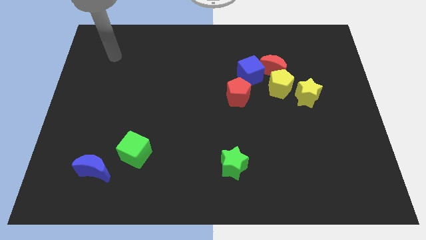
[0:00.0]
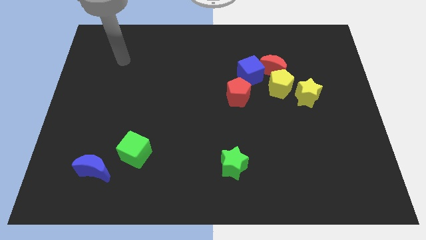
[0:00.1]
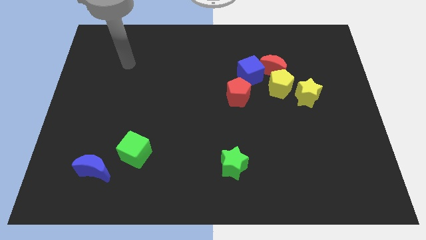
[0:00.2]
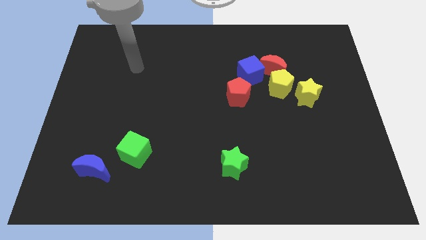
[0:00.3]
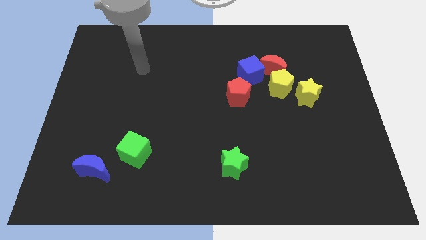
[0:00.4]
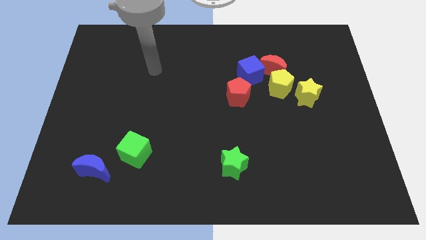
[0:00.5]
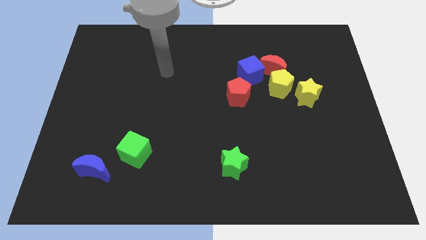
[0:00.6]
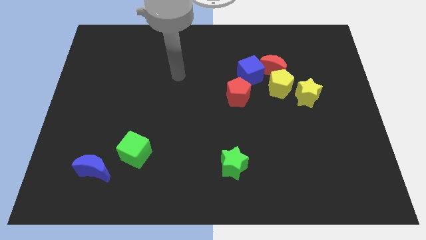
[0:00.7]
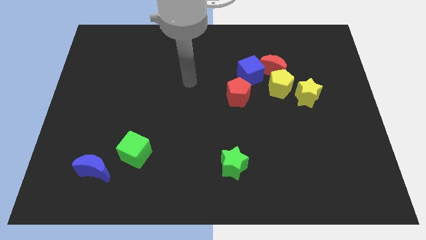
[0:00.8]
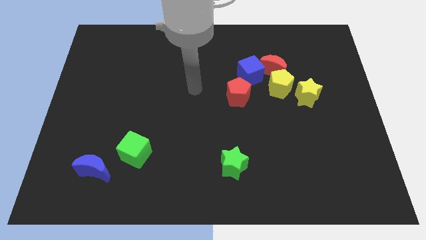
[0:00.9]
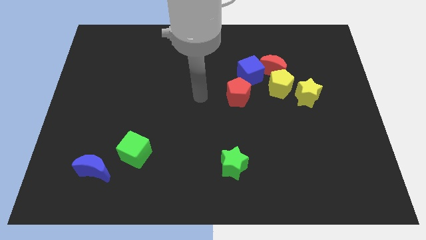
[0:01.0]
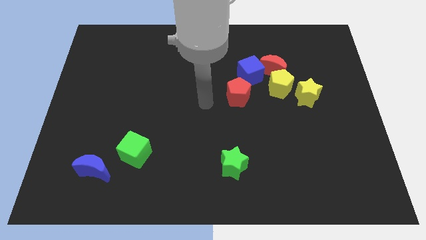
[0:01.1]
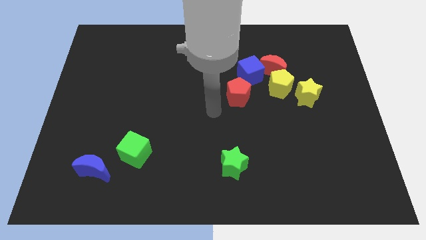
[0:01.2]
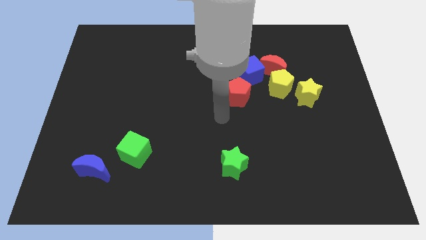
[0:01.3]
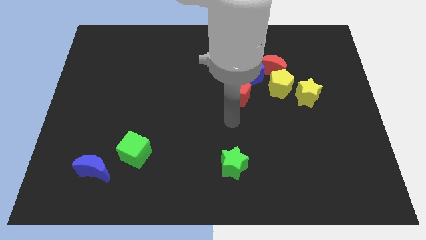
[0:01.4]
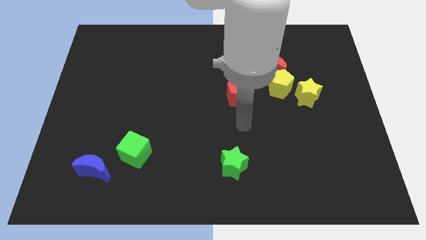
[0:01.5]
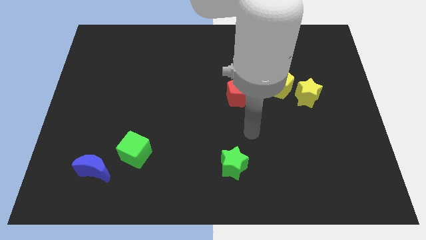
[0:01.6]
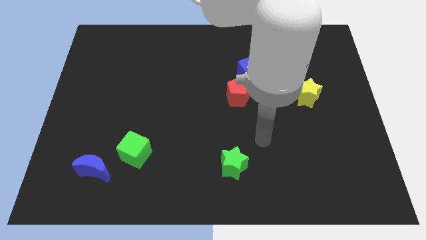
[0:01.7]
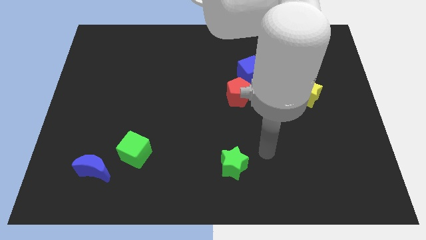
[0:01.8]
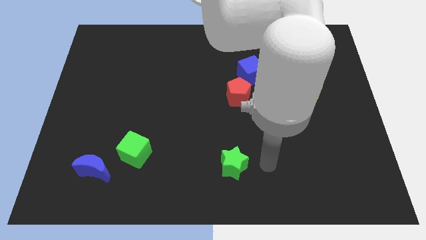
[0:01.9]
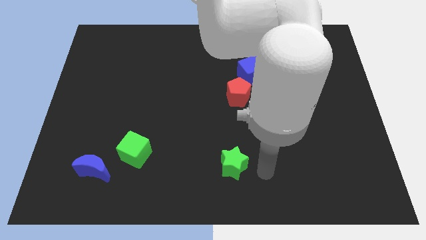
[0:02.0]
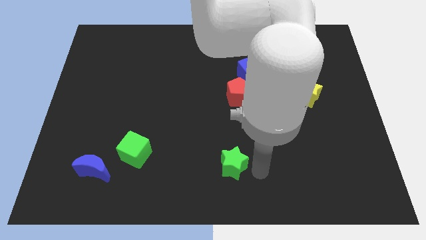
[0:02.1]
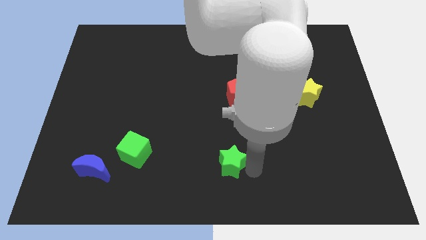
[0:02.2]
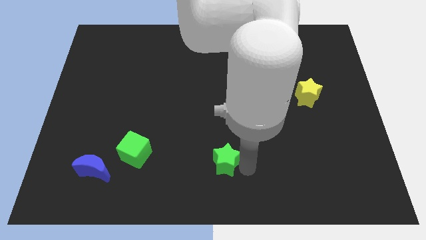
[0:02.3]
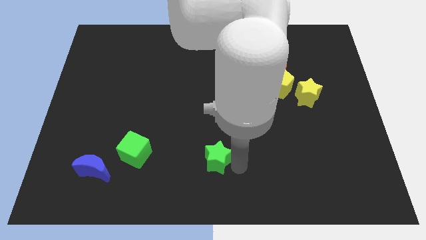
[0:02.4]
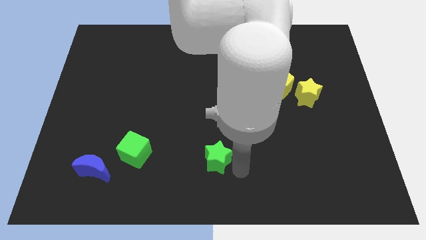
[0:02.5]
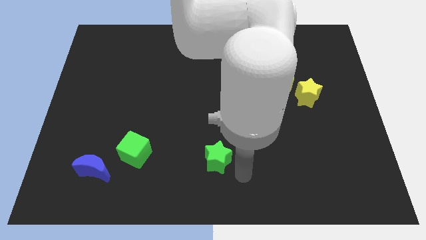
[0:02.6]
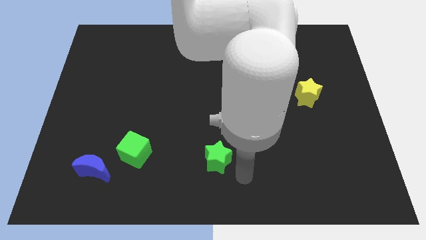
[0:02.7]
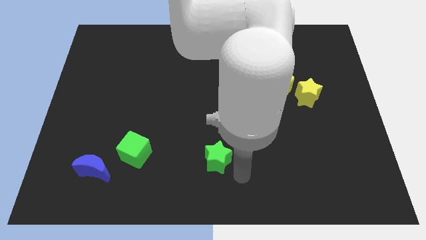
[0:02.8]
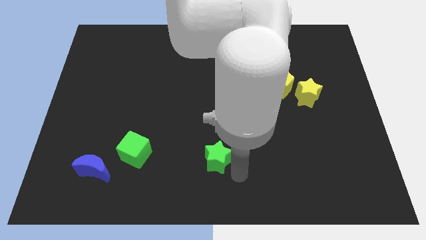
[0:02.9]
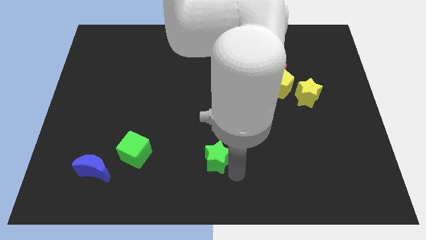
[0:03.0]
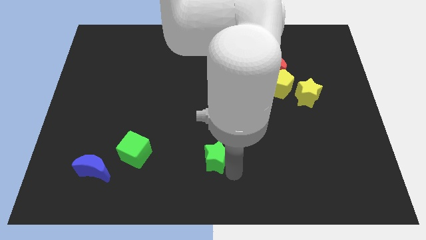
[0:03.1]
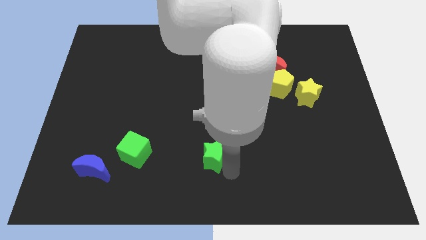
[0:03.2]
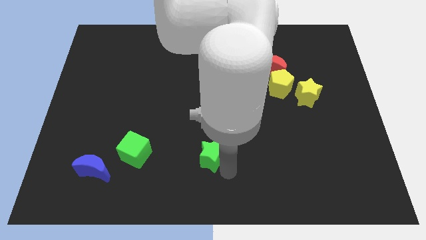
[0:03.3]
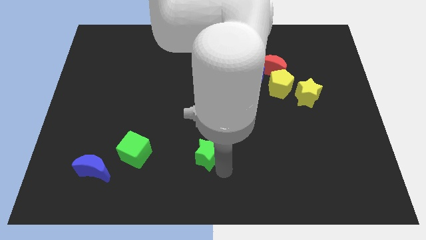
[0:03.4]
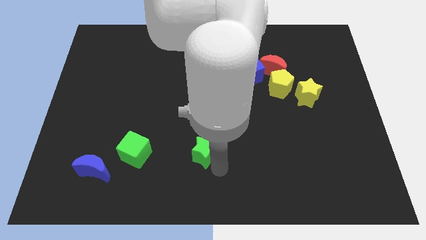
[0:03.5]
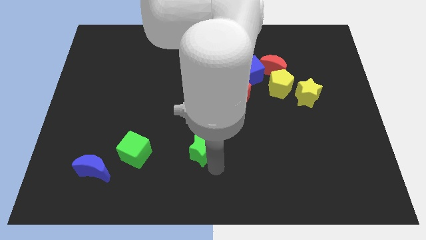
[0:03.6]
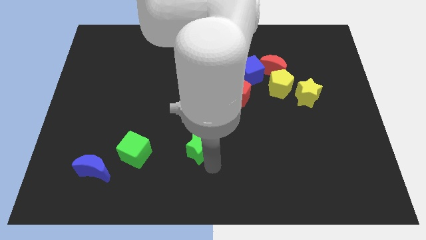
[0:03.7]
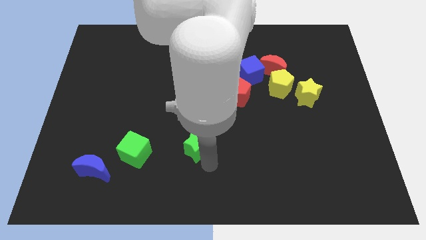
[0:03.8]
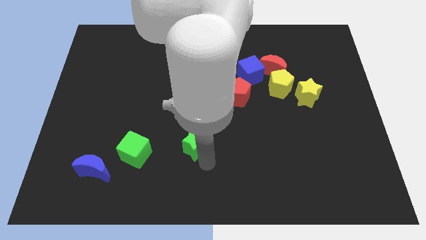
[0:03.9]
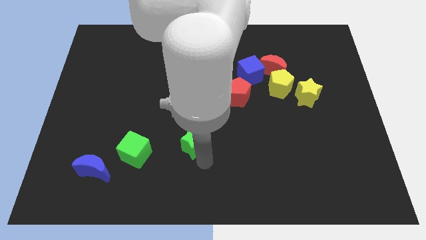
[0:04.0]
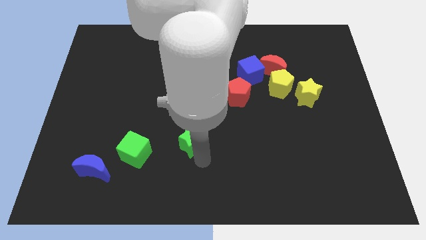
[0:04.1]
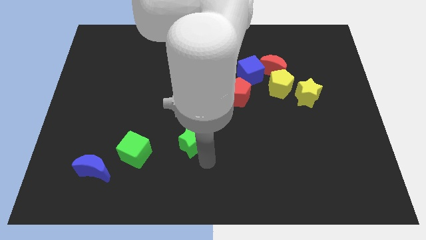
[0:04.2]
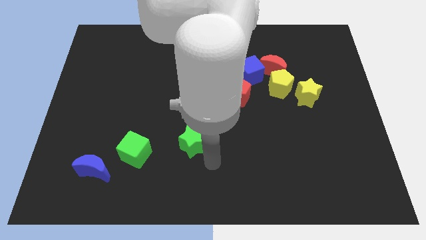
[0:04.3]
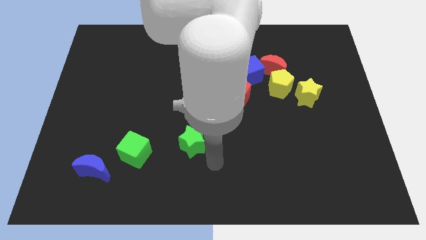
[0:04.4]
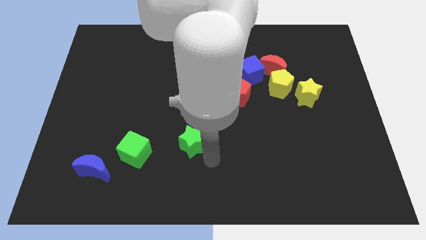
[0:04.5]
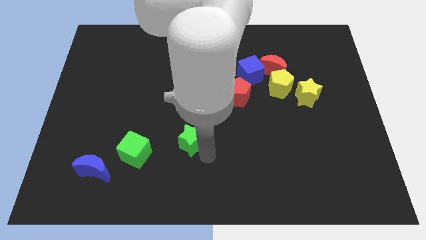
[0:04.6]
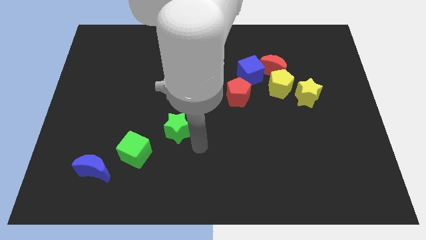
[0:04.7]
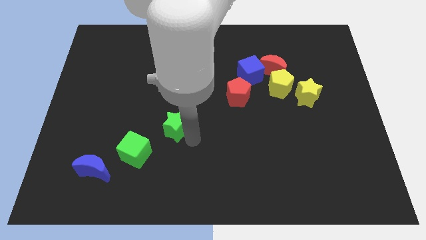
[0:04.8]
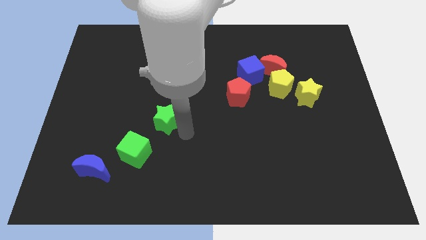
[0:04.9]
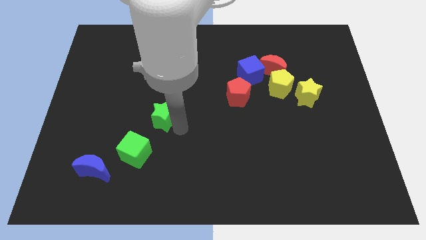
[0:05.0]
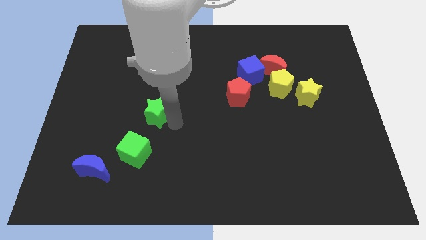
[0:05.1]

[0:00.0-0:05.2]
move the green star above the green cube

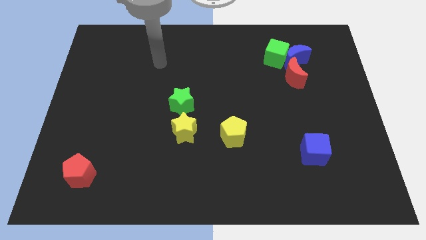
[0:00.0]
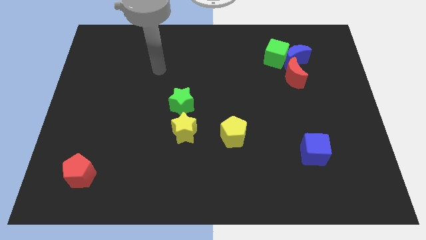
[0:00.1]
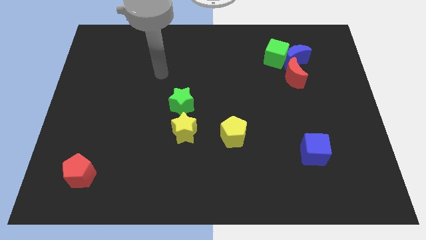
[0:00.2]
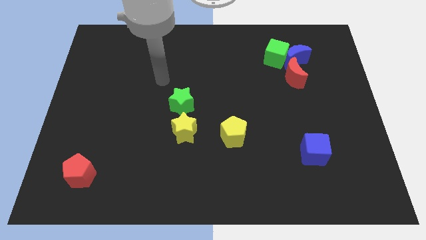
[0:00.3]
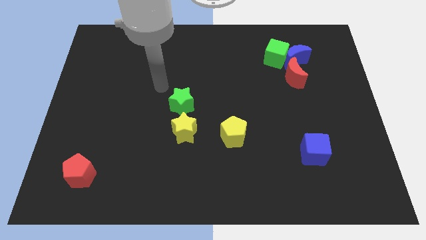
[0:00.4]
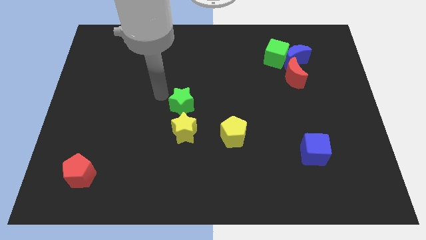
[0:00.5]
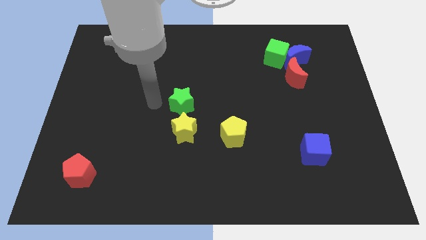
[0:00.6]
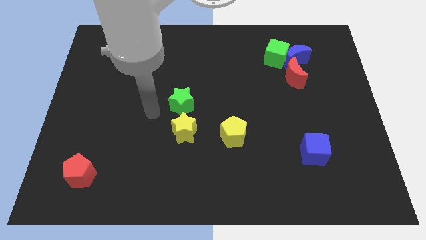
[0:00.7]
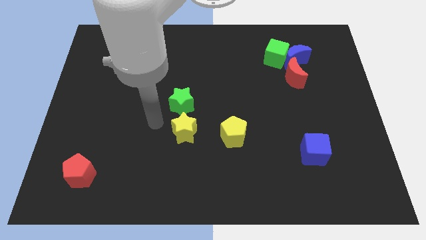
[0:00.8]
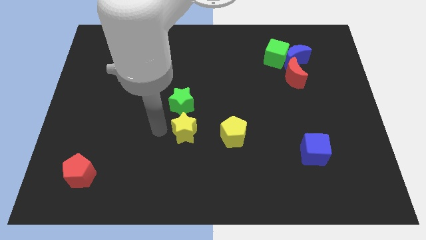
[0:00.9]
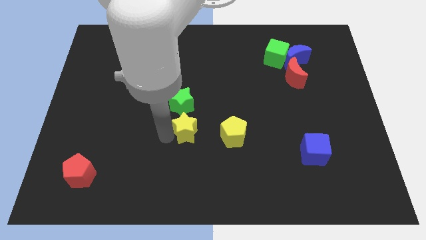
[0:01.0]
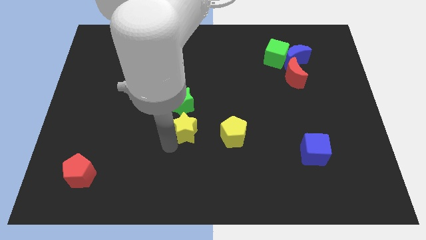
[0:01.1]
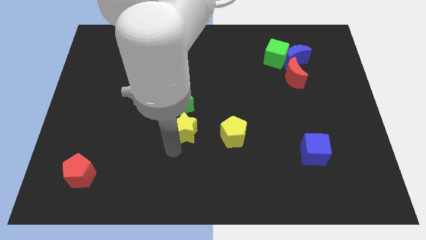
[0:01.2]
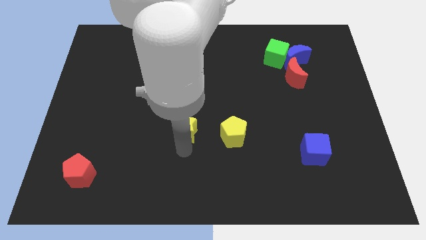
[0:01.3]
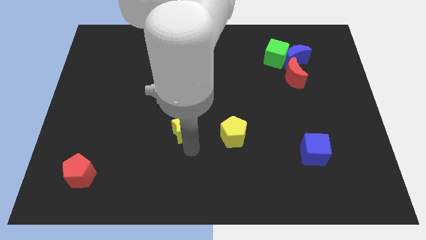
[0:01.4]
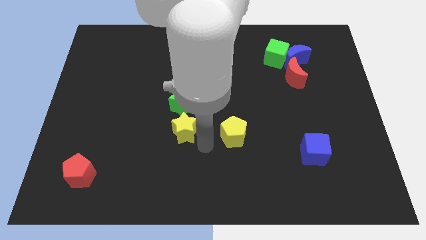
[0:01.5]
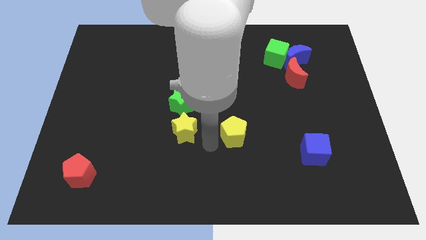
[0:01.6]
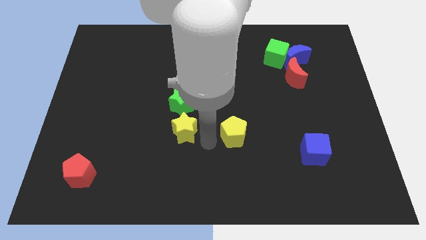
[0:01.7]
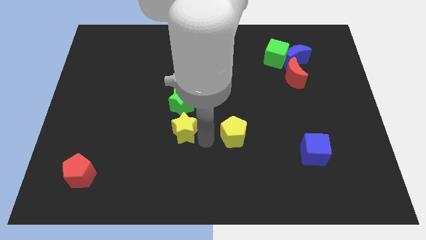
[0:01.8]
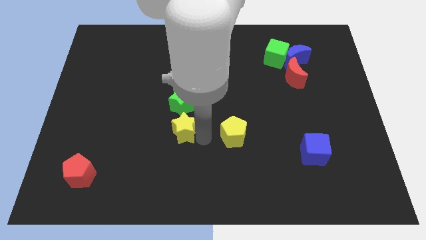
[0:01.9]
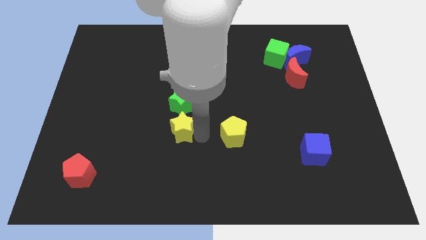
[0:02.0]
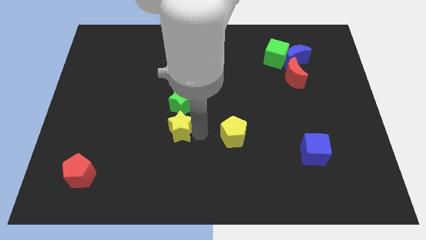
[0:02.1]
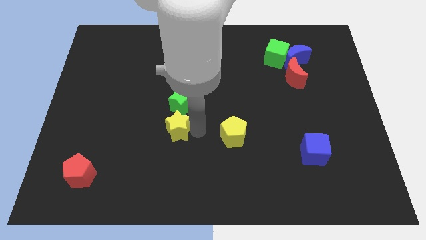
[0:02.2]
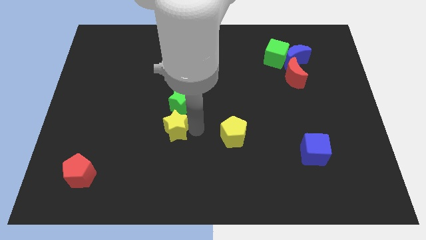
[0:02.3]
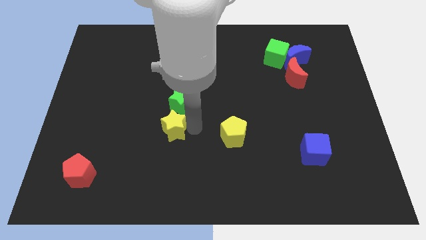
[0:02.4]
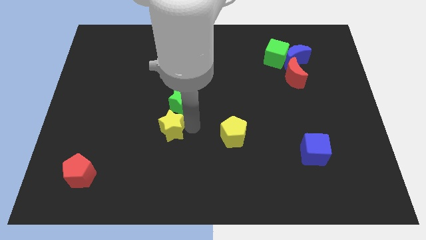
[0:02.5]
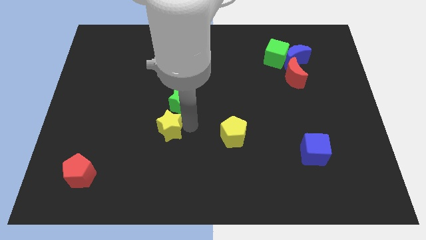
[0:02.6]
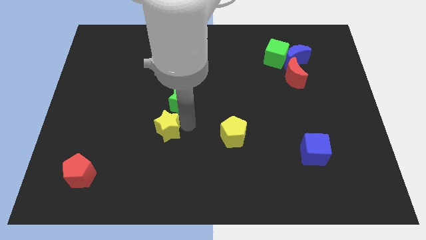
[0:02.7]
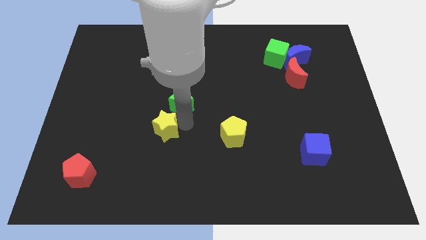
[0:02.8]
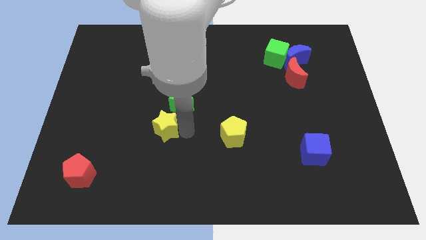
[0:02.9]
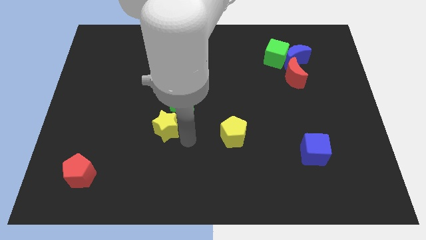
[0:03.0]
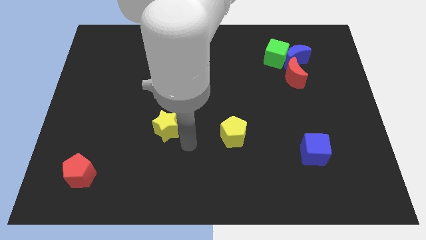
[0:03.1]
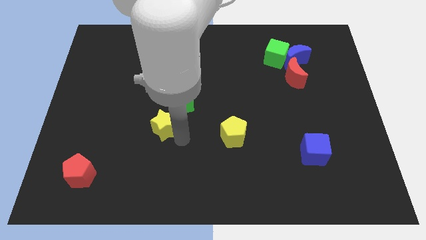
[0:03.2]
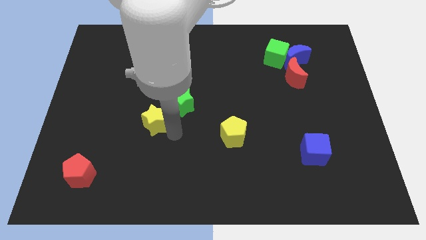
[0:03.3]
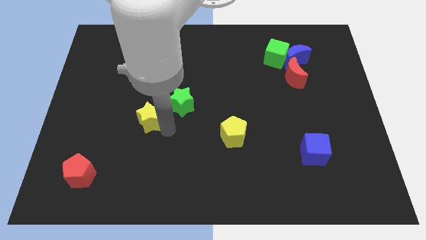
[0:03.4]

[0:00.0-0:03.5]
push the yellow star left of the green star
